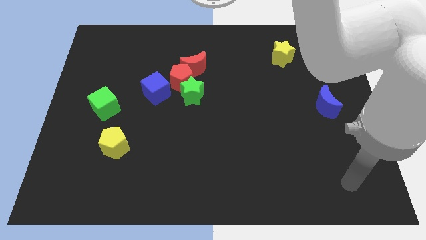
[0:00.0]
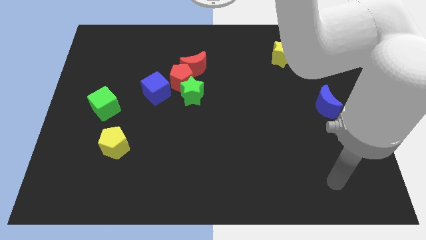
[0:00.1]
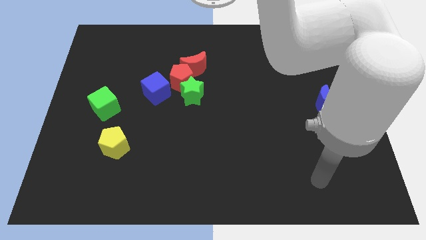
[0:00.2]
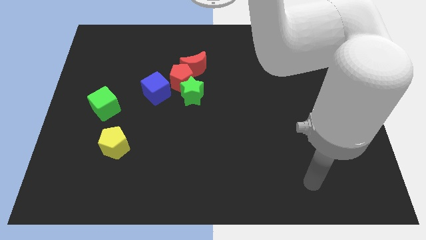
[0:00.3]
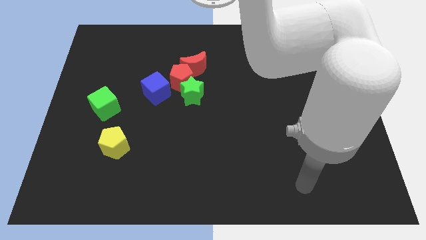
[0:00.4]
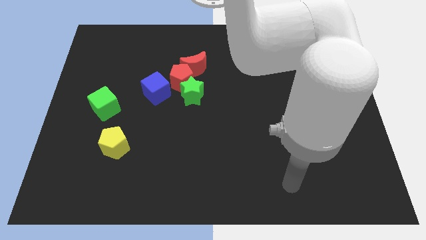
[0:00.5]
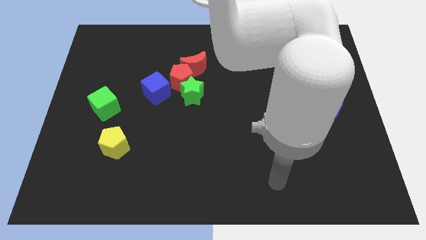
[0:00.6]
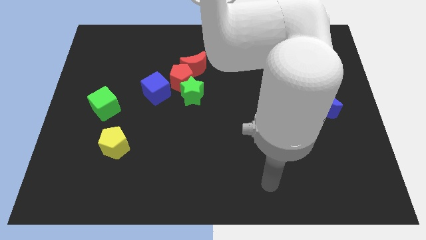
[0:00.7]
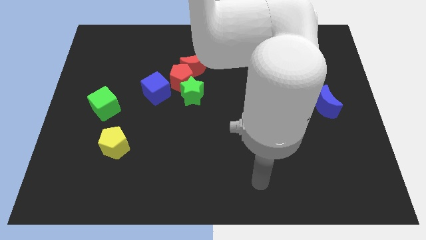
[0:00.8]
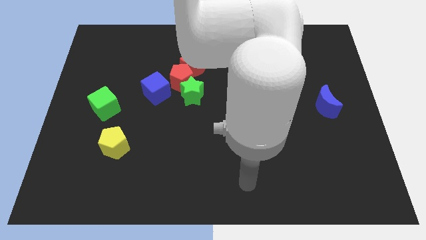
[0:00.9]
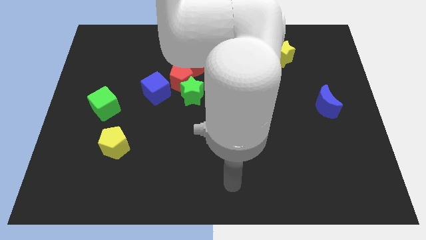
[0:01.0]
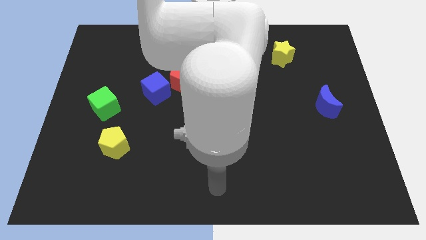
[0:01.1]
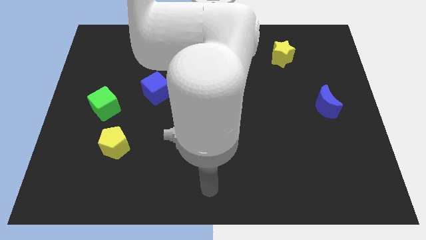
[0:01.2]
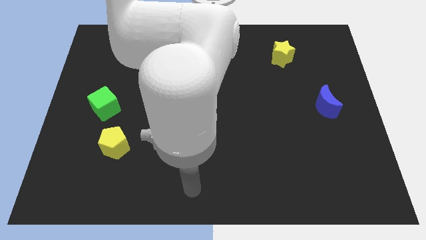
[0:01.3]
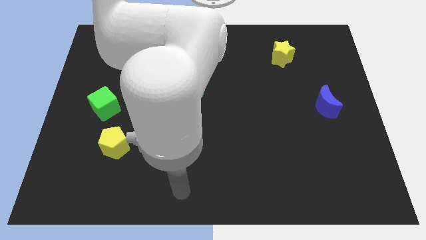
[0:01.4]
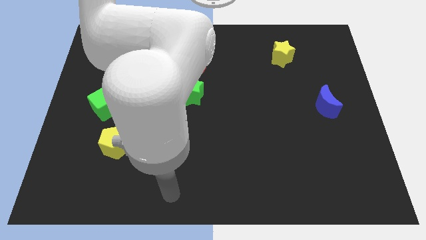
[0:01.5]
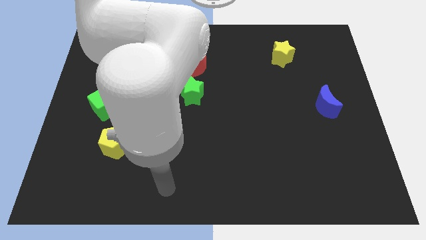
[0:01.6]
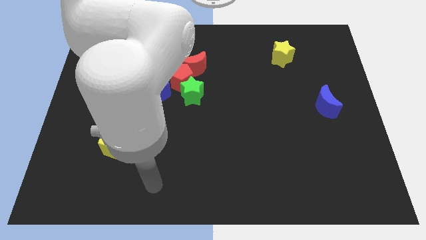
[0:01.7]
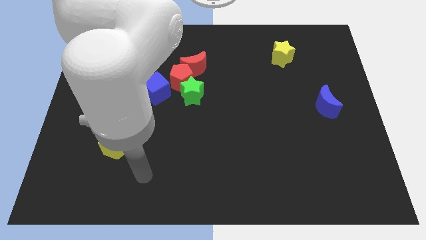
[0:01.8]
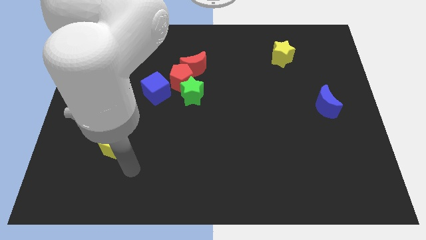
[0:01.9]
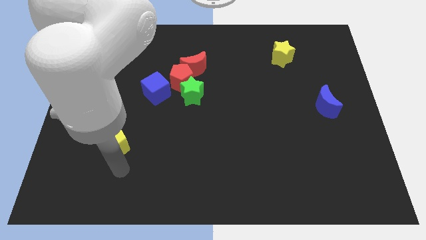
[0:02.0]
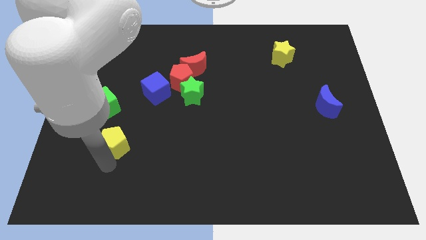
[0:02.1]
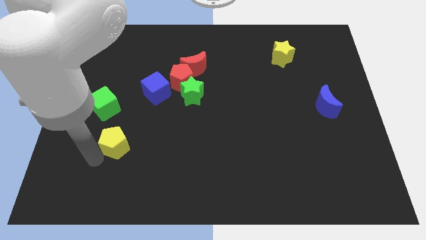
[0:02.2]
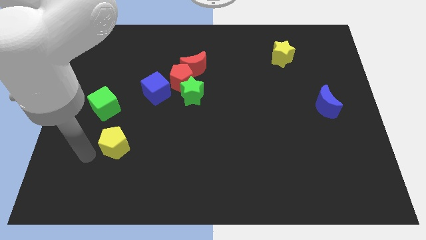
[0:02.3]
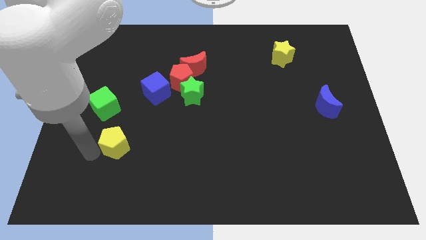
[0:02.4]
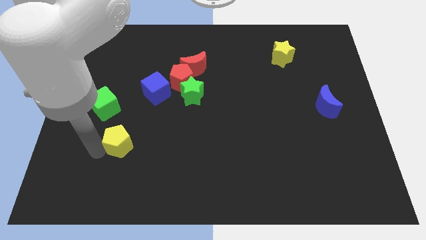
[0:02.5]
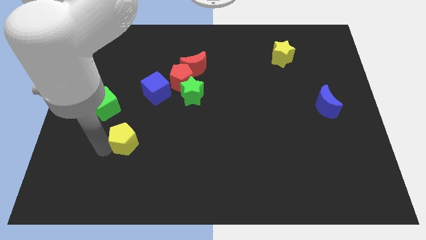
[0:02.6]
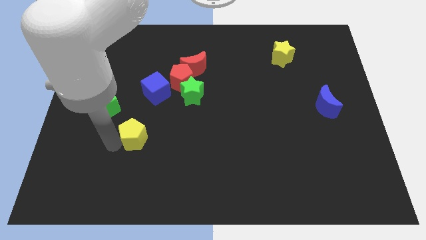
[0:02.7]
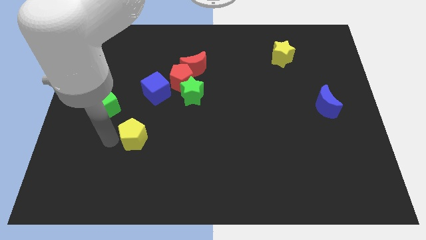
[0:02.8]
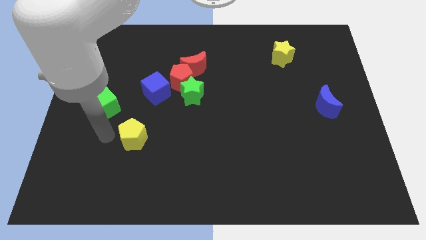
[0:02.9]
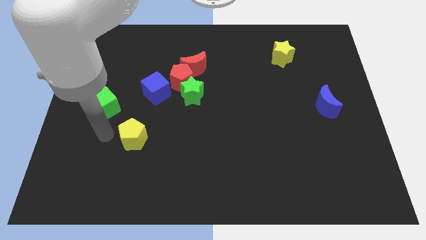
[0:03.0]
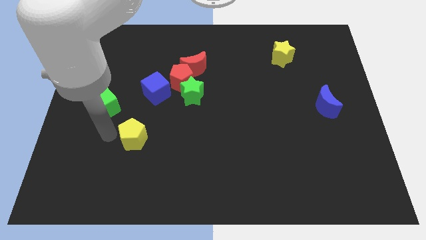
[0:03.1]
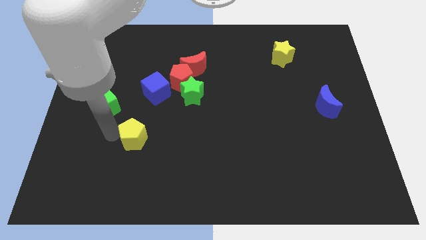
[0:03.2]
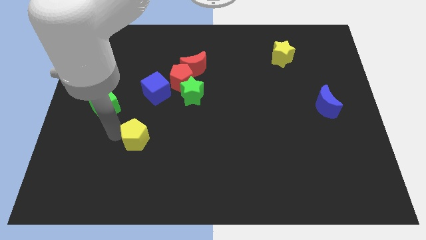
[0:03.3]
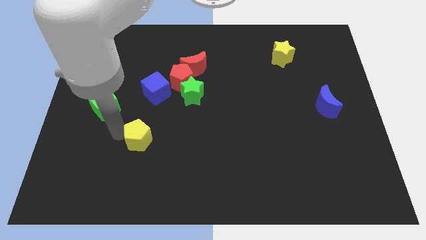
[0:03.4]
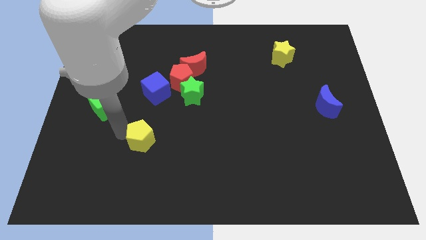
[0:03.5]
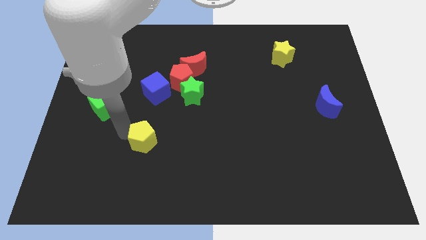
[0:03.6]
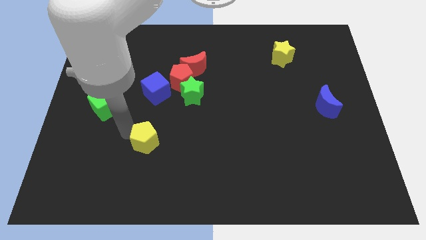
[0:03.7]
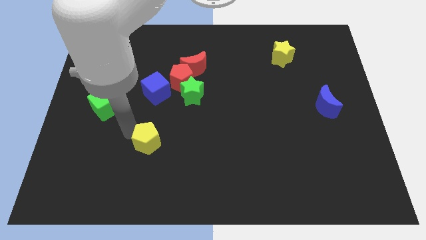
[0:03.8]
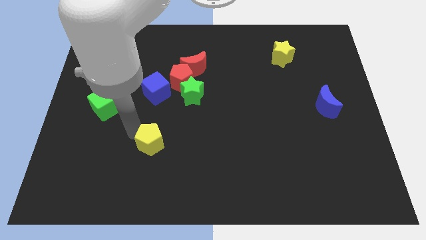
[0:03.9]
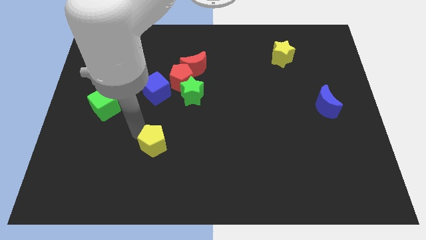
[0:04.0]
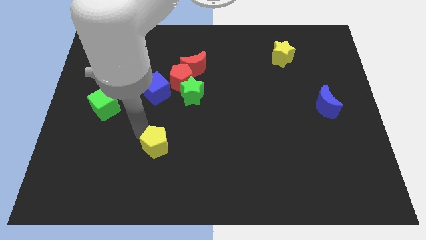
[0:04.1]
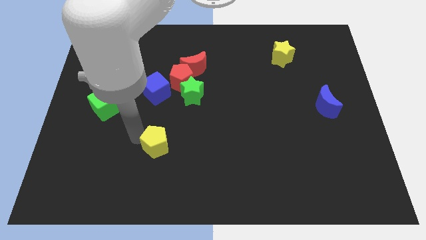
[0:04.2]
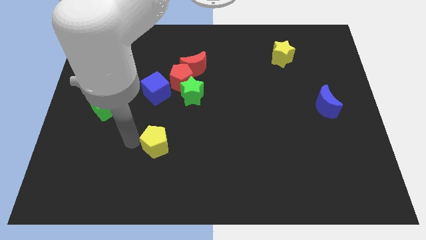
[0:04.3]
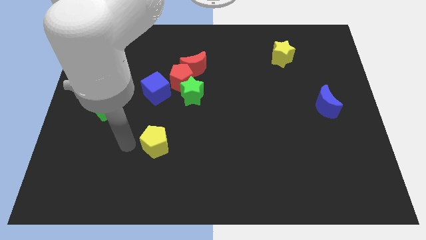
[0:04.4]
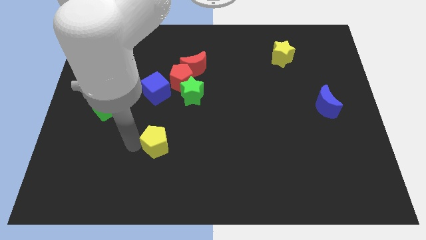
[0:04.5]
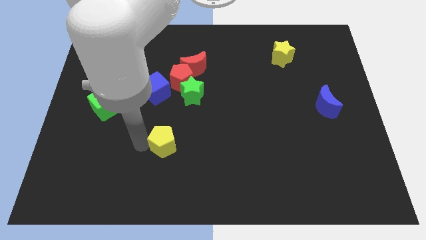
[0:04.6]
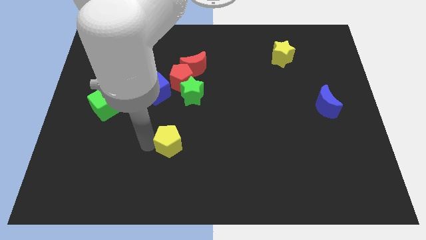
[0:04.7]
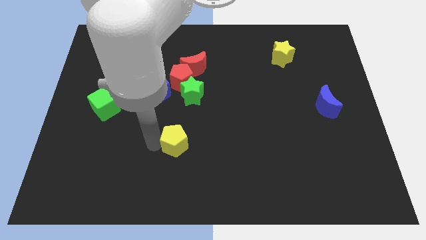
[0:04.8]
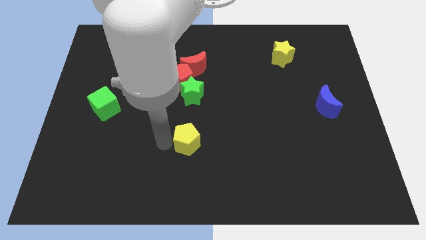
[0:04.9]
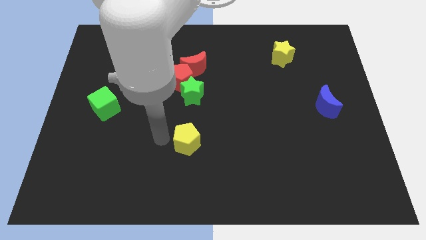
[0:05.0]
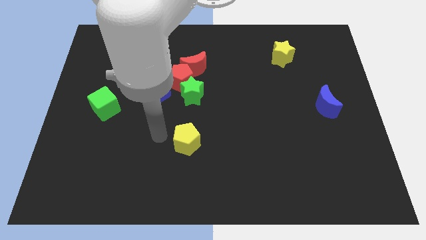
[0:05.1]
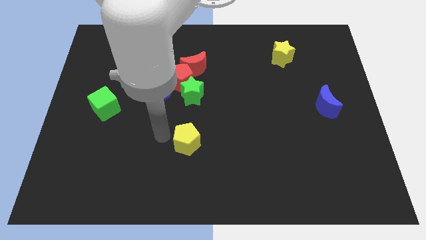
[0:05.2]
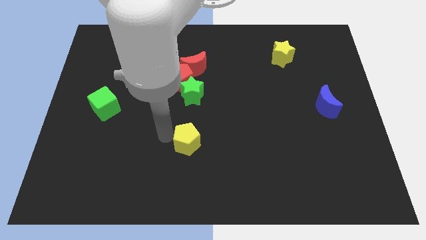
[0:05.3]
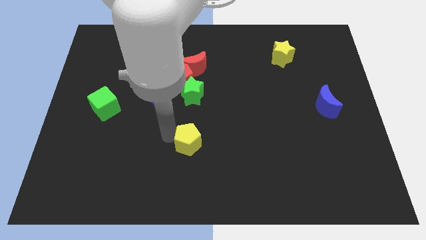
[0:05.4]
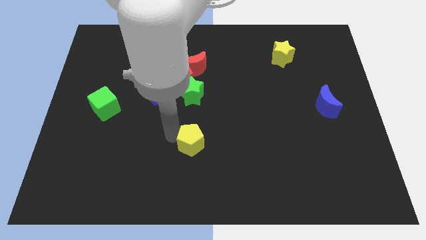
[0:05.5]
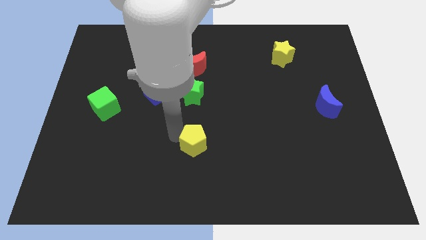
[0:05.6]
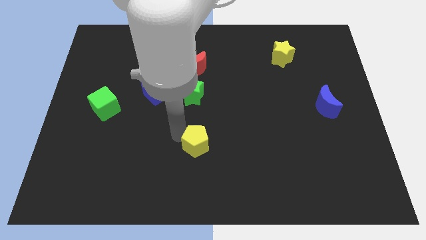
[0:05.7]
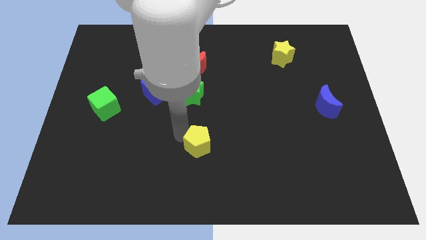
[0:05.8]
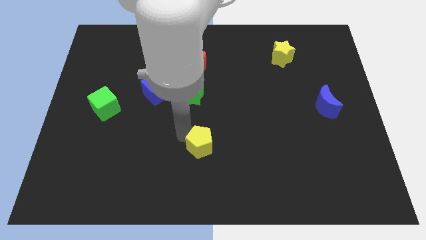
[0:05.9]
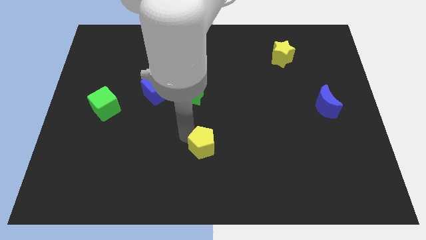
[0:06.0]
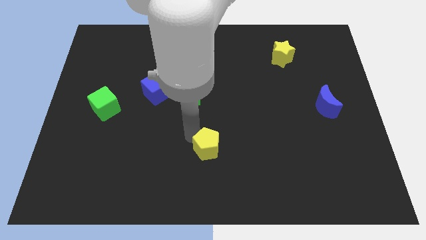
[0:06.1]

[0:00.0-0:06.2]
slide the yellow pentagon right

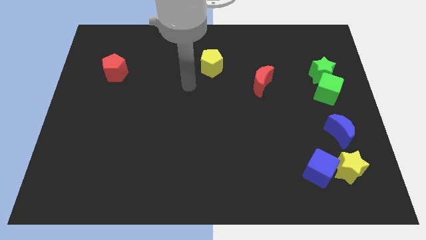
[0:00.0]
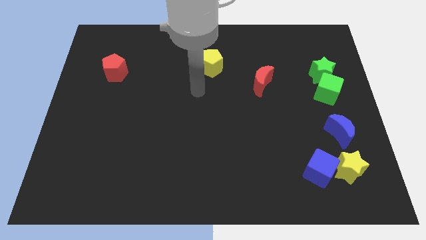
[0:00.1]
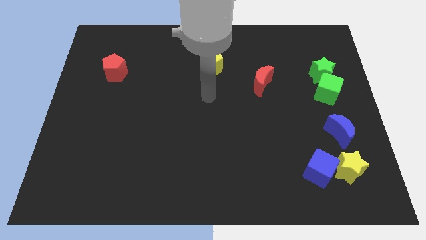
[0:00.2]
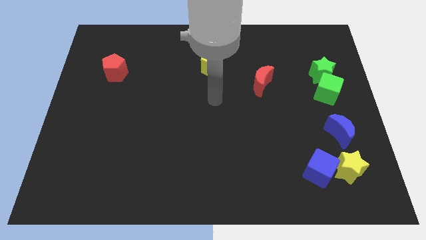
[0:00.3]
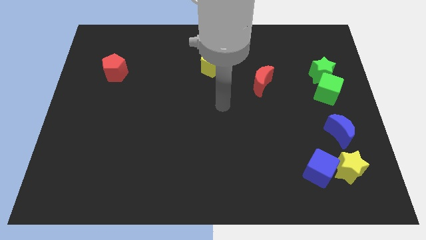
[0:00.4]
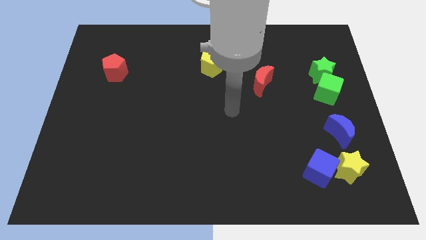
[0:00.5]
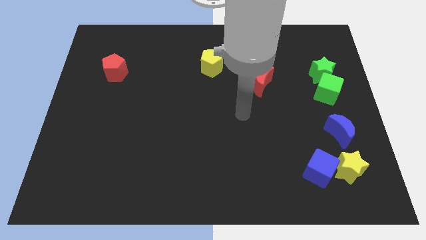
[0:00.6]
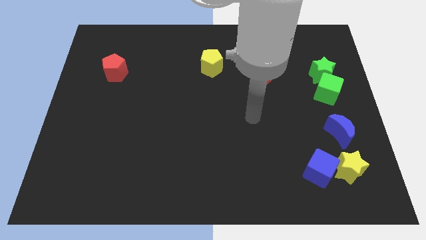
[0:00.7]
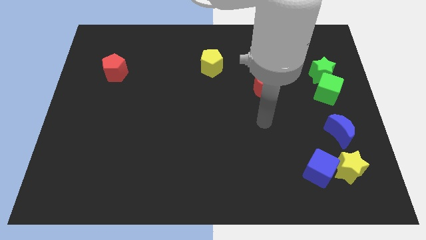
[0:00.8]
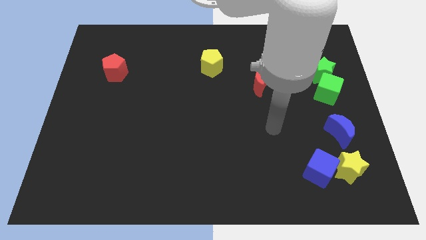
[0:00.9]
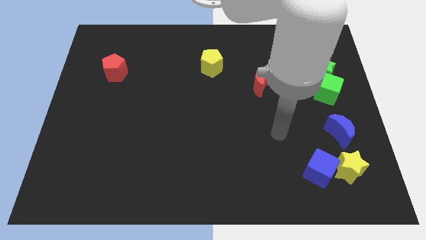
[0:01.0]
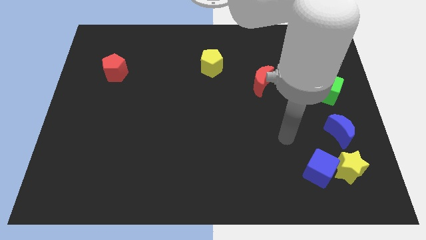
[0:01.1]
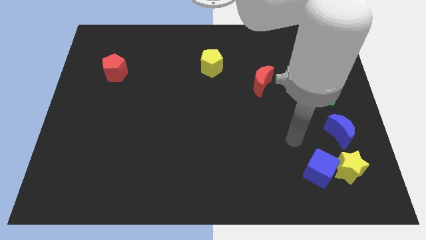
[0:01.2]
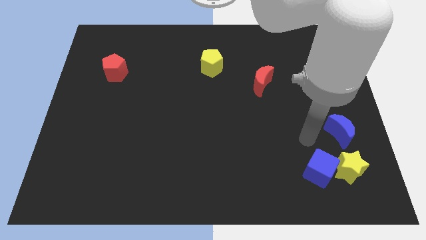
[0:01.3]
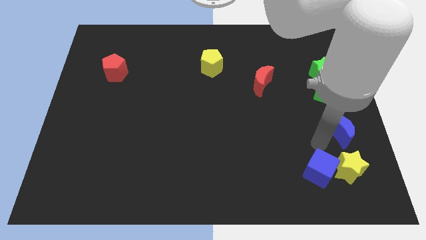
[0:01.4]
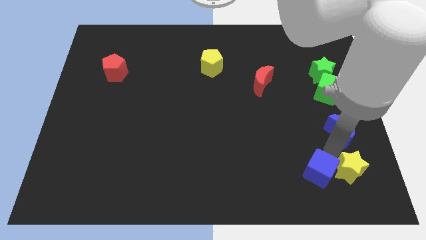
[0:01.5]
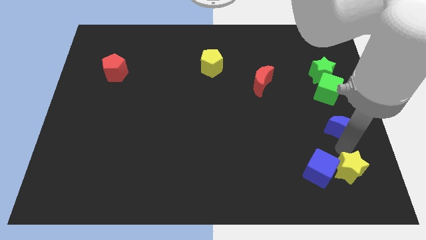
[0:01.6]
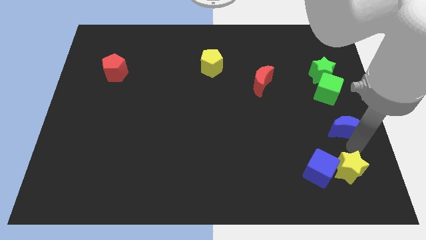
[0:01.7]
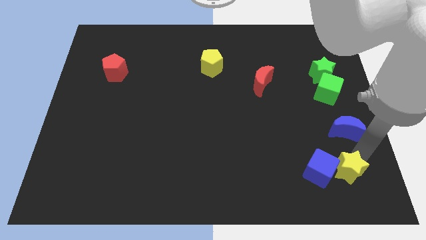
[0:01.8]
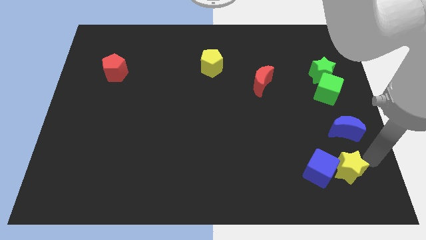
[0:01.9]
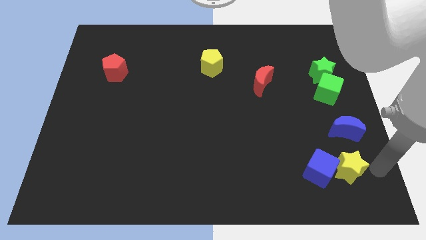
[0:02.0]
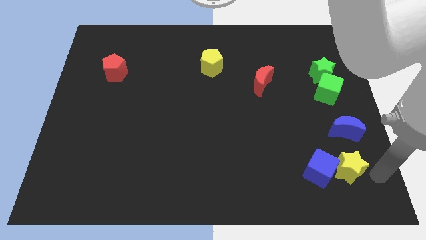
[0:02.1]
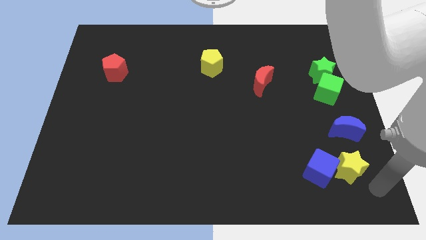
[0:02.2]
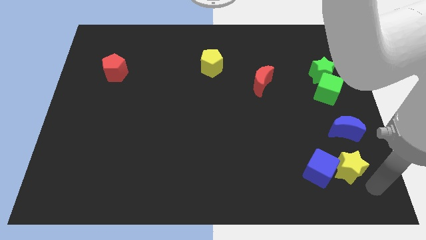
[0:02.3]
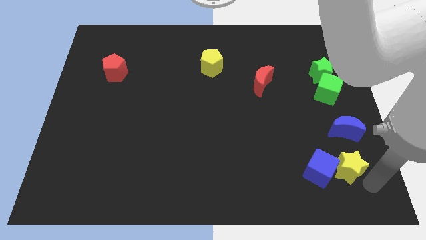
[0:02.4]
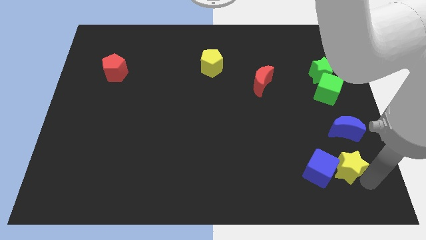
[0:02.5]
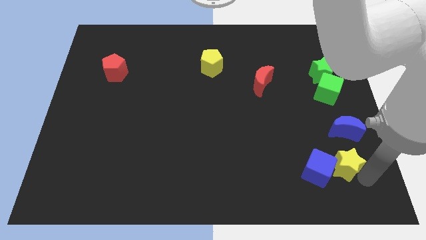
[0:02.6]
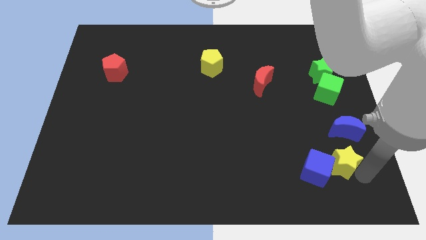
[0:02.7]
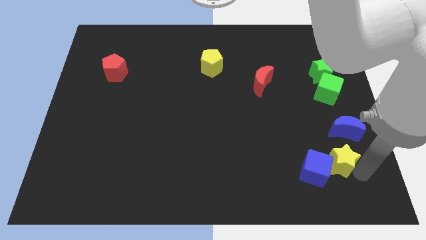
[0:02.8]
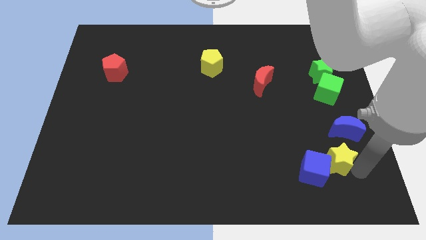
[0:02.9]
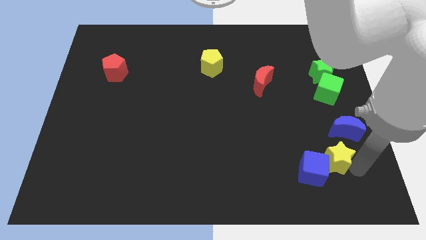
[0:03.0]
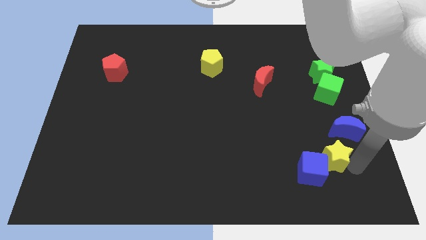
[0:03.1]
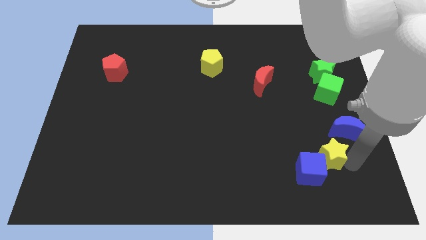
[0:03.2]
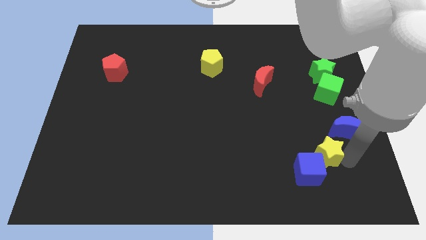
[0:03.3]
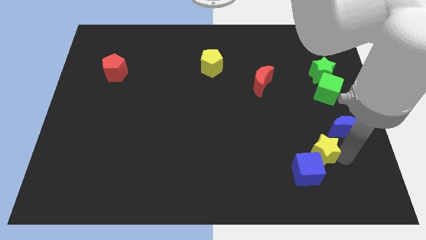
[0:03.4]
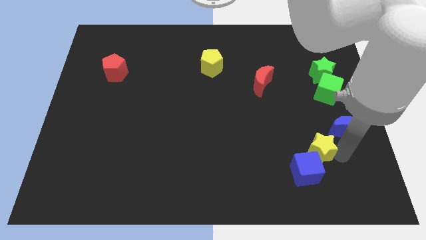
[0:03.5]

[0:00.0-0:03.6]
slightly push the yellow star up and then left
